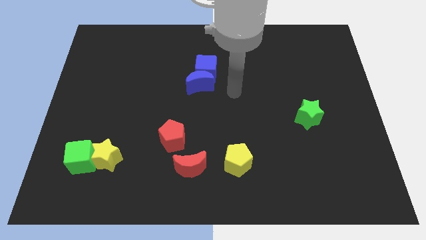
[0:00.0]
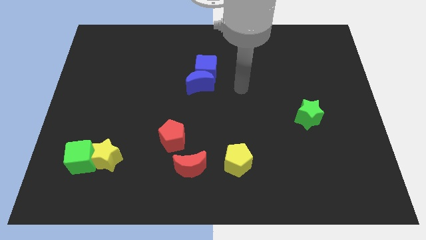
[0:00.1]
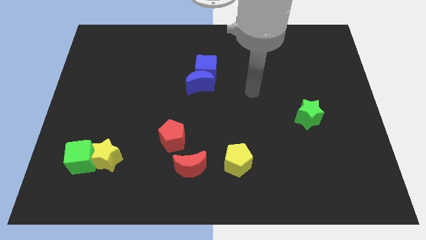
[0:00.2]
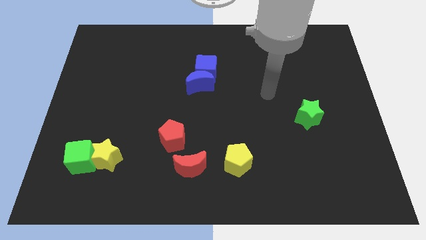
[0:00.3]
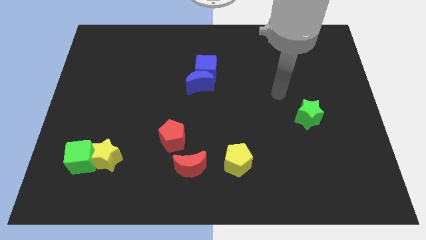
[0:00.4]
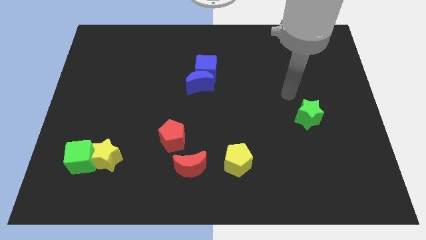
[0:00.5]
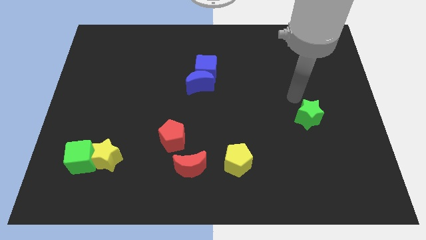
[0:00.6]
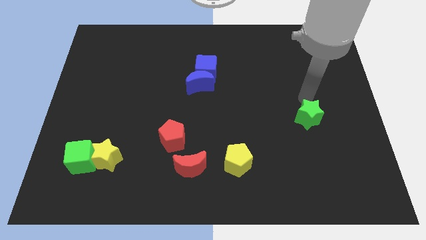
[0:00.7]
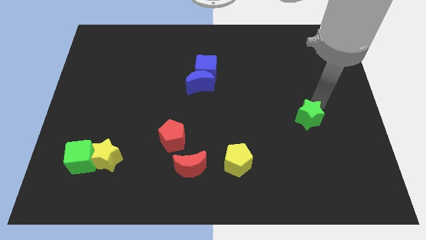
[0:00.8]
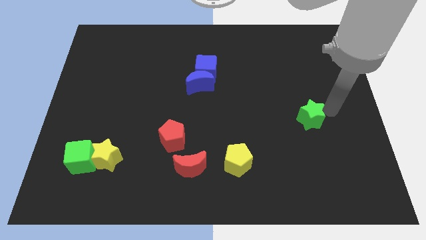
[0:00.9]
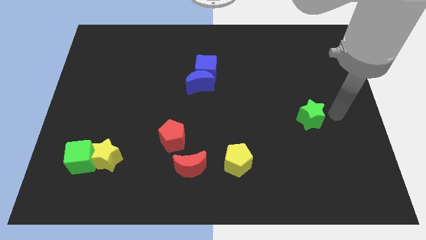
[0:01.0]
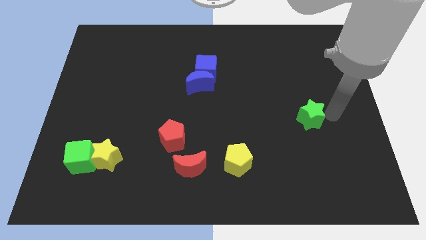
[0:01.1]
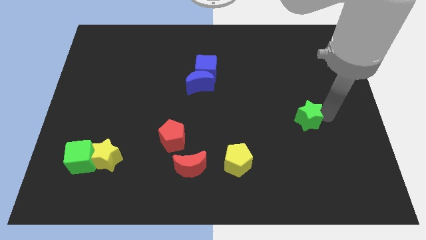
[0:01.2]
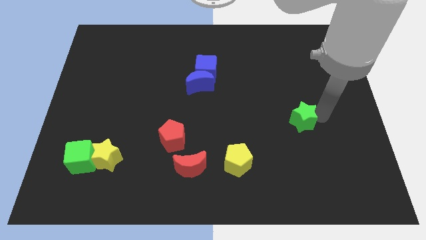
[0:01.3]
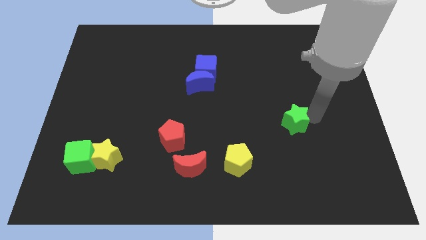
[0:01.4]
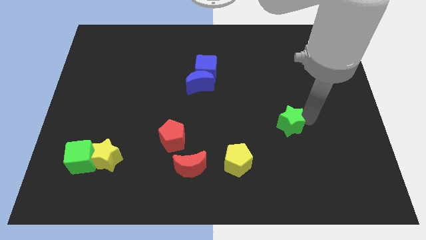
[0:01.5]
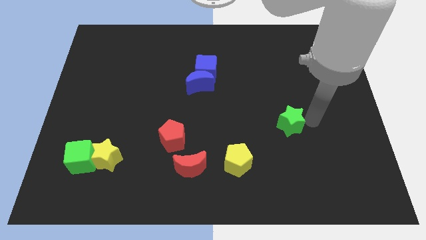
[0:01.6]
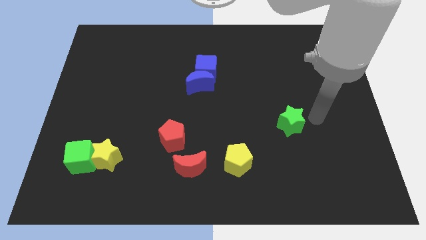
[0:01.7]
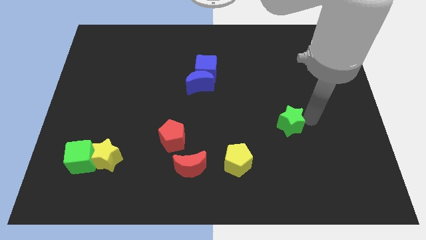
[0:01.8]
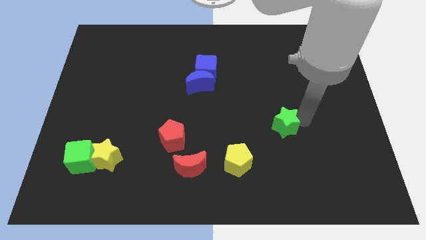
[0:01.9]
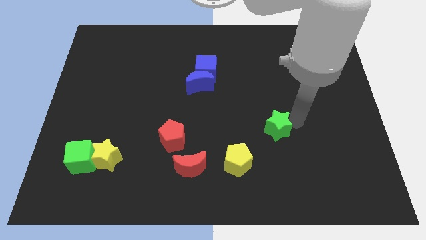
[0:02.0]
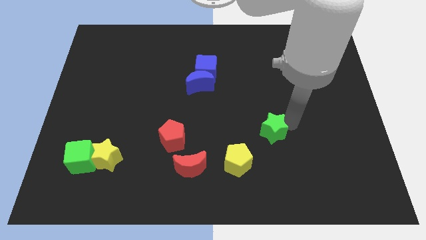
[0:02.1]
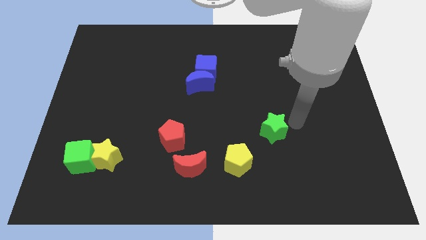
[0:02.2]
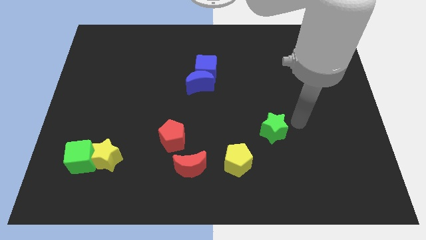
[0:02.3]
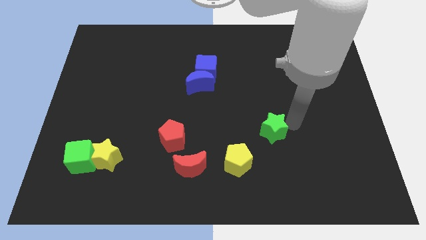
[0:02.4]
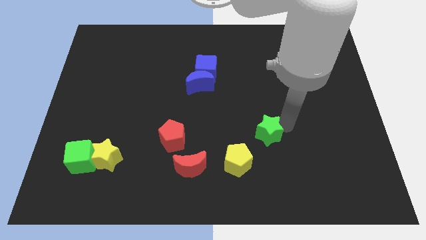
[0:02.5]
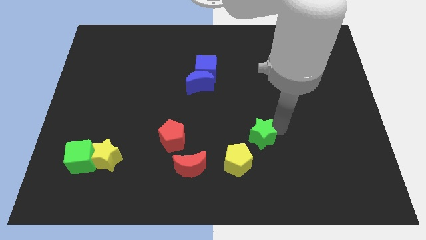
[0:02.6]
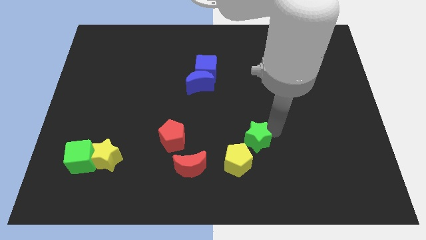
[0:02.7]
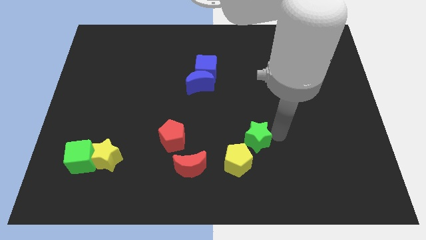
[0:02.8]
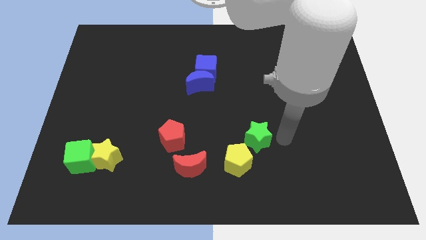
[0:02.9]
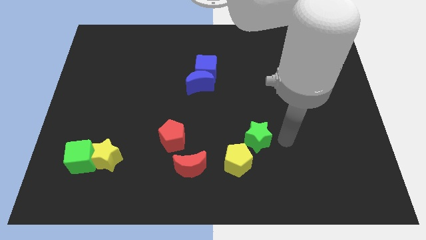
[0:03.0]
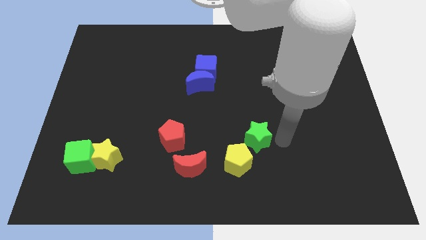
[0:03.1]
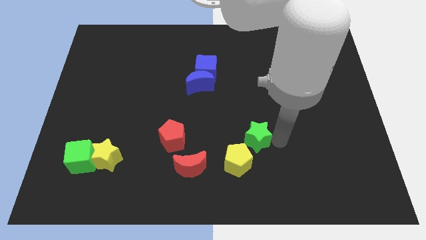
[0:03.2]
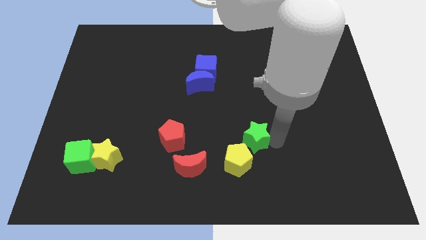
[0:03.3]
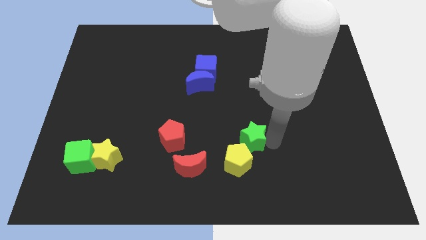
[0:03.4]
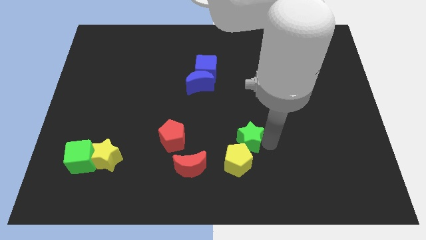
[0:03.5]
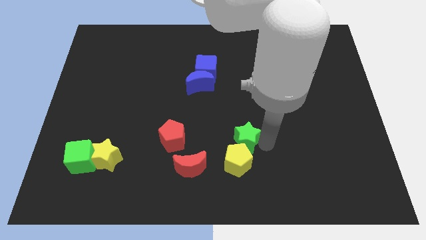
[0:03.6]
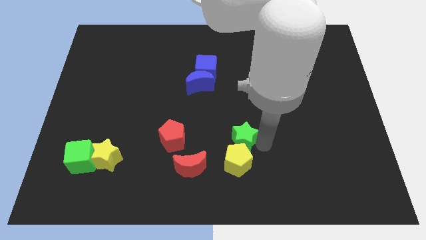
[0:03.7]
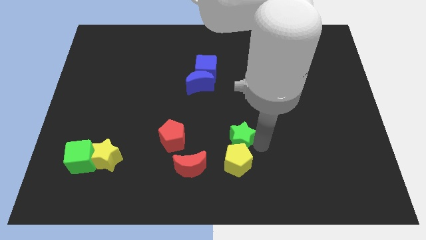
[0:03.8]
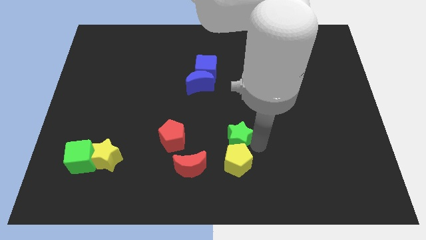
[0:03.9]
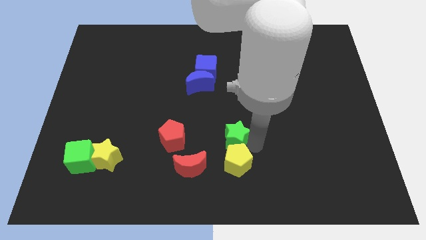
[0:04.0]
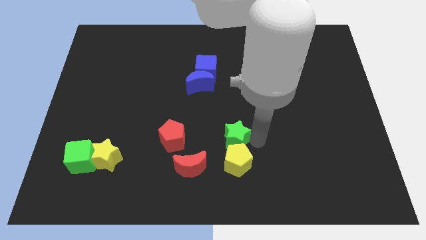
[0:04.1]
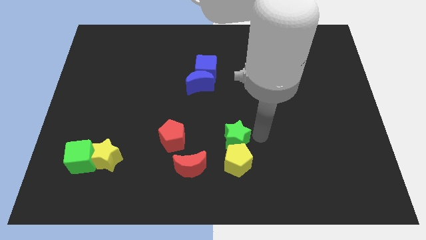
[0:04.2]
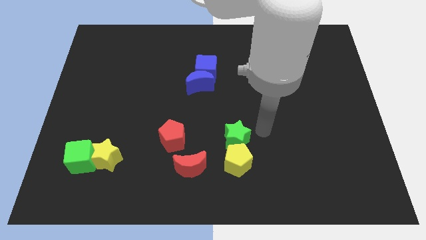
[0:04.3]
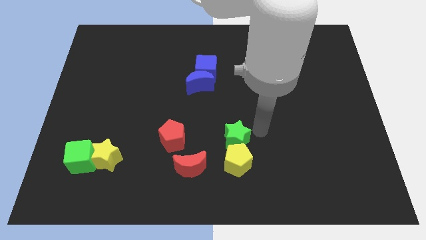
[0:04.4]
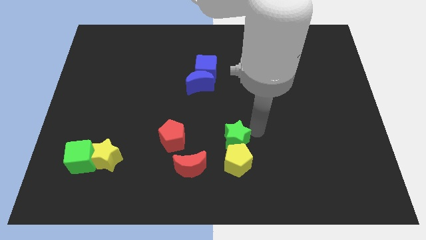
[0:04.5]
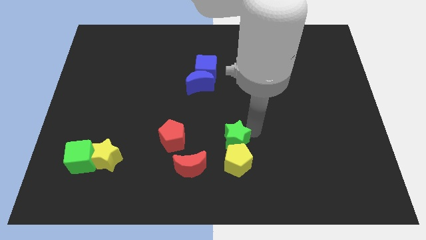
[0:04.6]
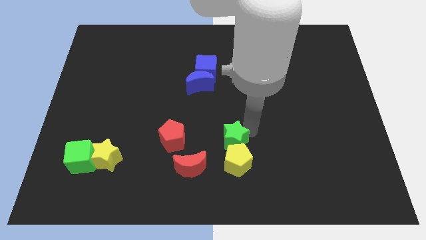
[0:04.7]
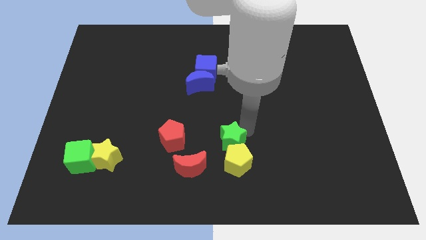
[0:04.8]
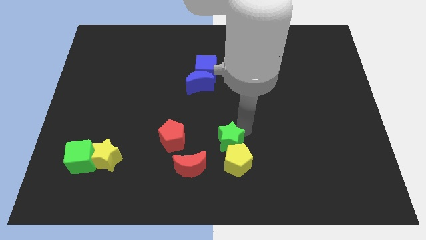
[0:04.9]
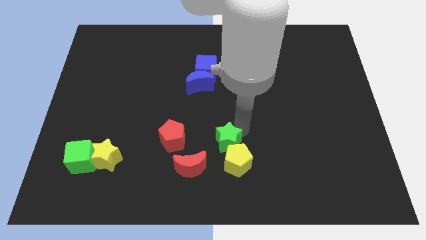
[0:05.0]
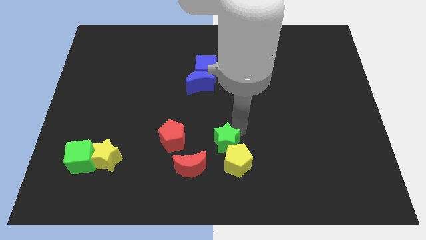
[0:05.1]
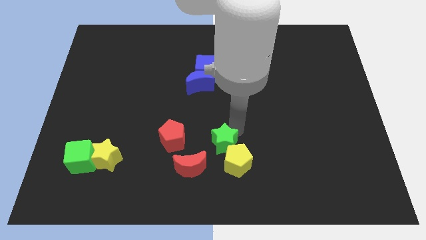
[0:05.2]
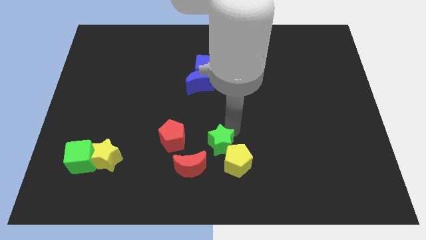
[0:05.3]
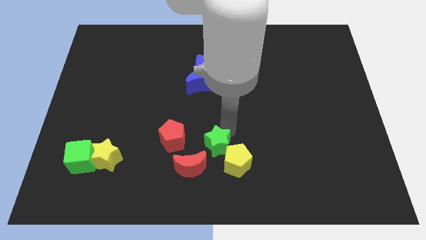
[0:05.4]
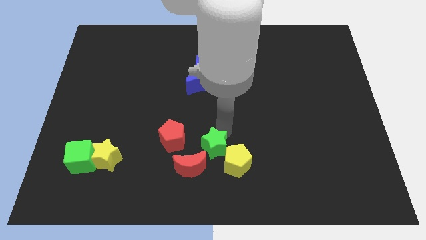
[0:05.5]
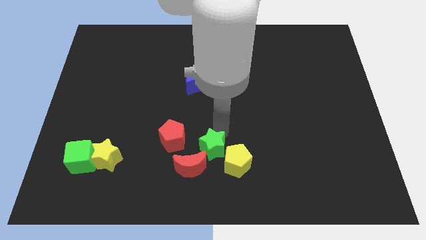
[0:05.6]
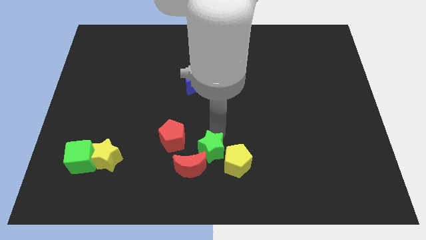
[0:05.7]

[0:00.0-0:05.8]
put the green star close to the red moon

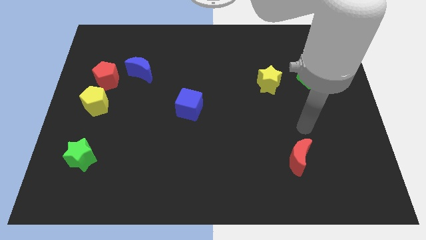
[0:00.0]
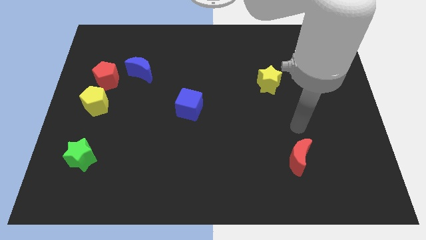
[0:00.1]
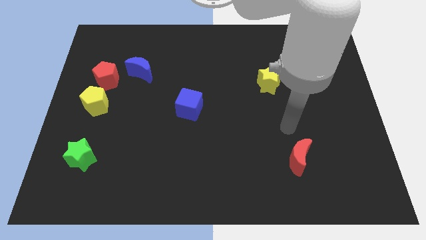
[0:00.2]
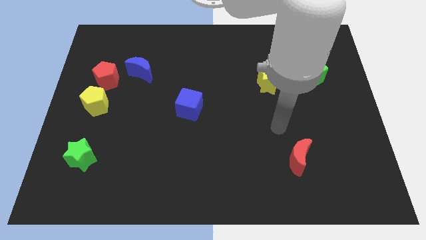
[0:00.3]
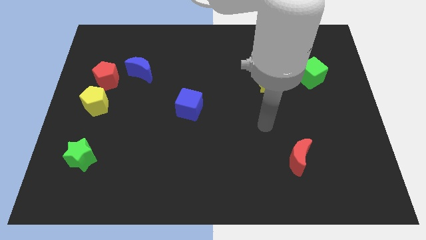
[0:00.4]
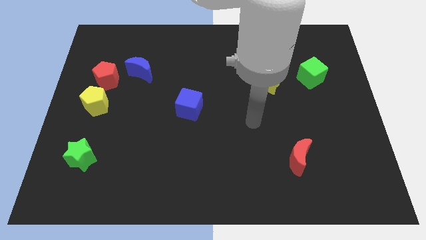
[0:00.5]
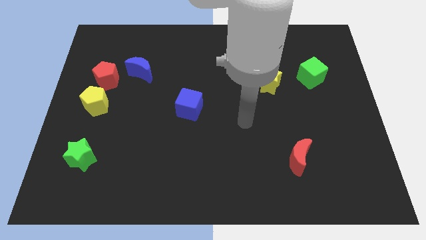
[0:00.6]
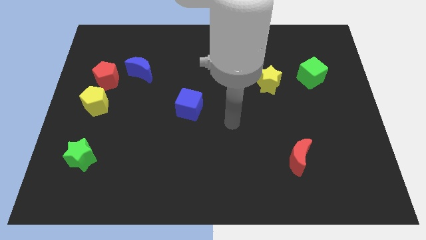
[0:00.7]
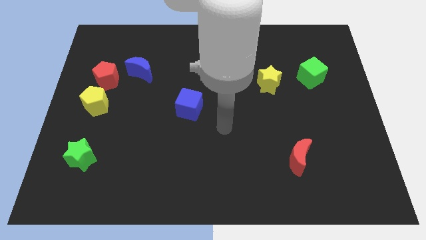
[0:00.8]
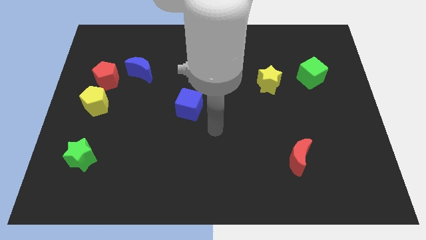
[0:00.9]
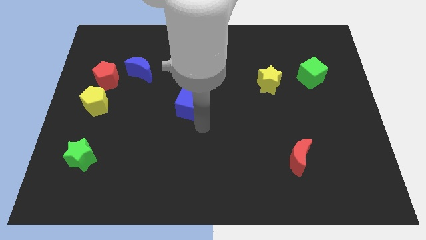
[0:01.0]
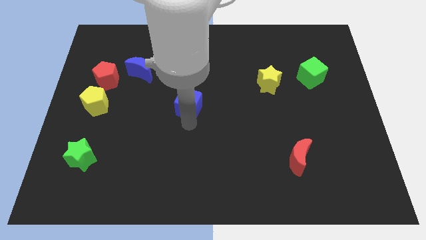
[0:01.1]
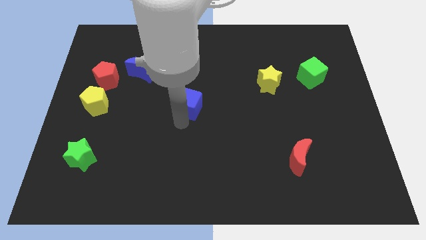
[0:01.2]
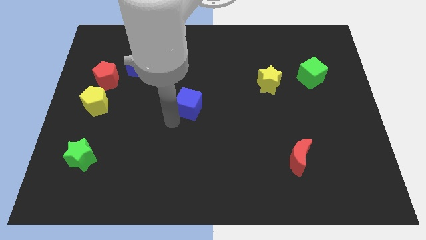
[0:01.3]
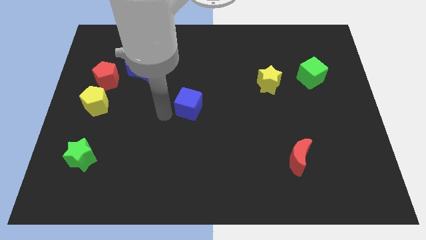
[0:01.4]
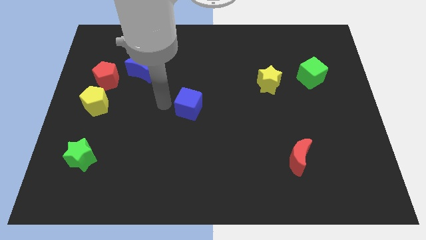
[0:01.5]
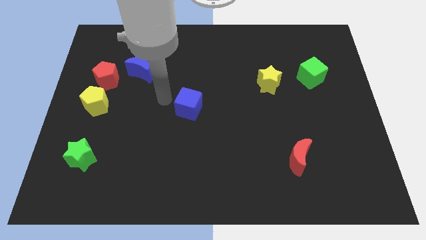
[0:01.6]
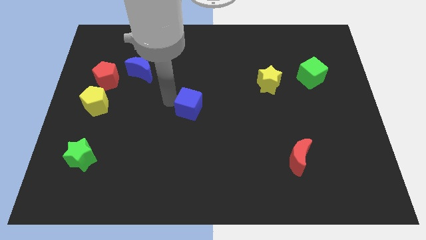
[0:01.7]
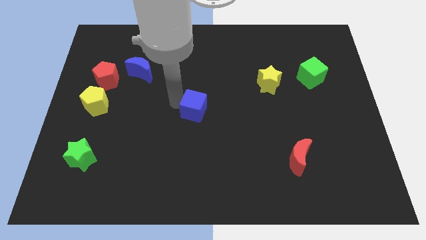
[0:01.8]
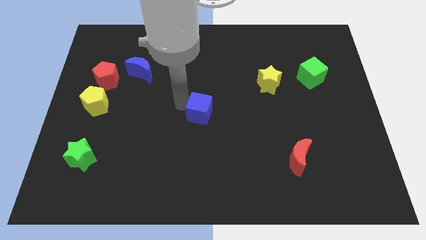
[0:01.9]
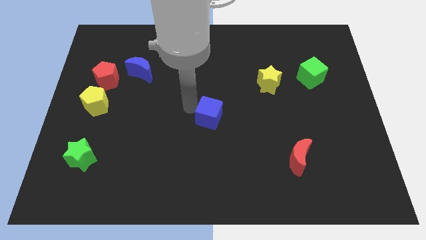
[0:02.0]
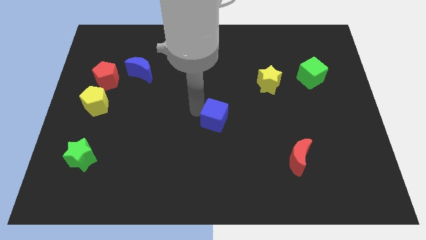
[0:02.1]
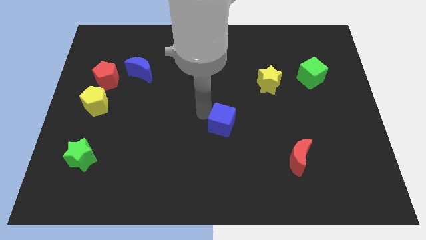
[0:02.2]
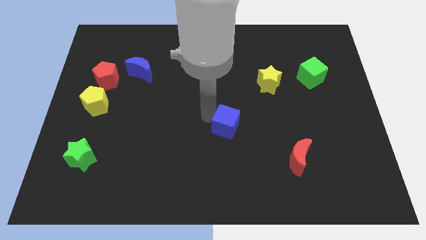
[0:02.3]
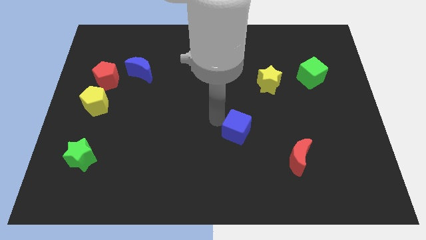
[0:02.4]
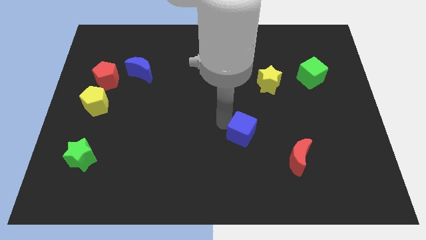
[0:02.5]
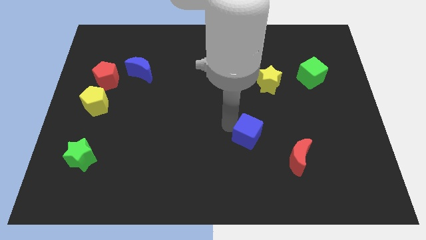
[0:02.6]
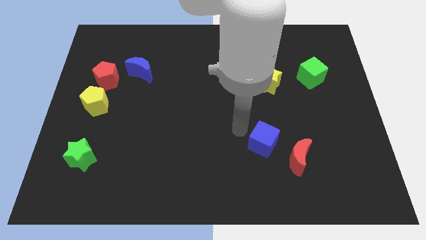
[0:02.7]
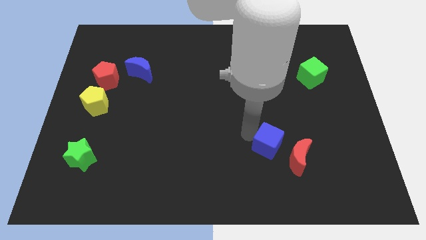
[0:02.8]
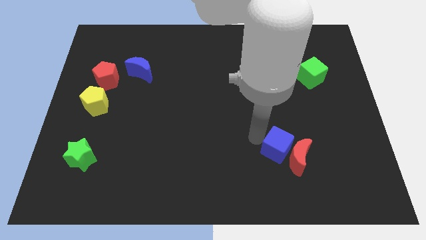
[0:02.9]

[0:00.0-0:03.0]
push the blue cube next to the red moon
